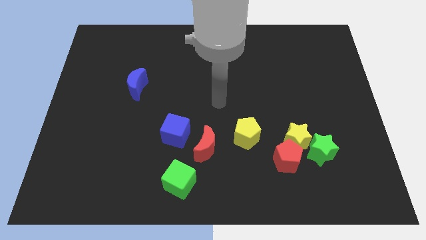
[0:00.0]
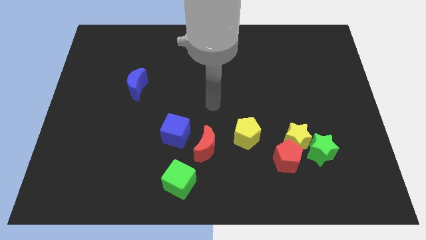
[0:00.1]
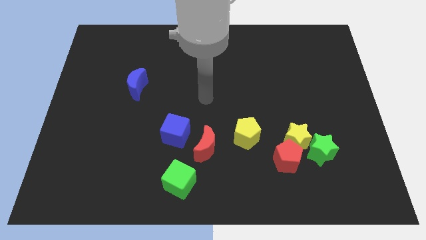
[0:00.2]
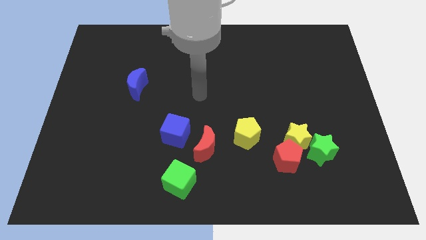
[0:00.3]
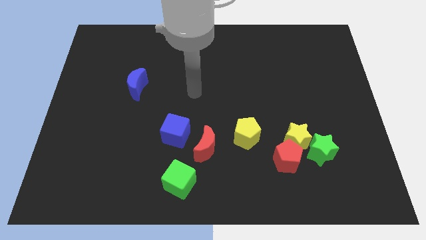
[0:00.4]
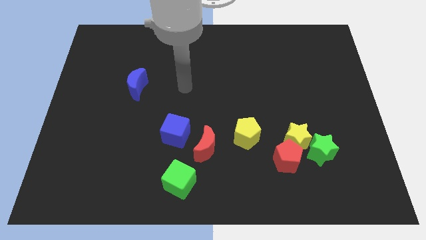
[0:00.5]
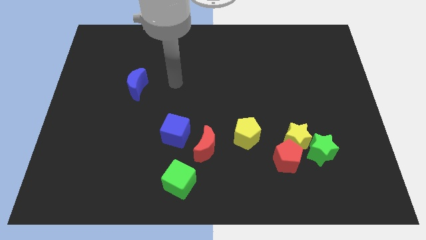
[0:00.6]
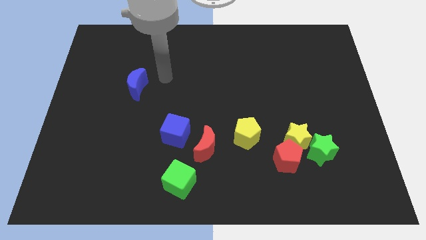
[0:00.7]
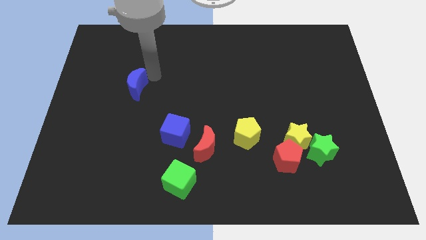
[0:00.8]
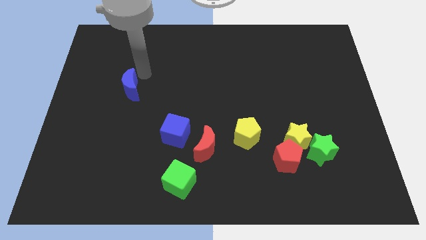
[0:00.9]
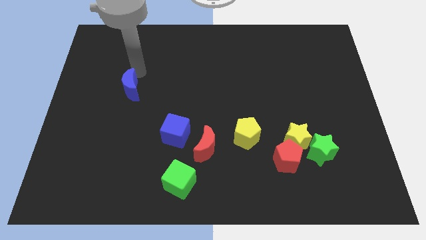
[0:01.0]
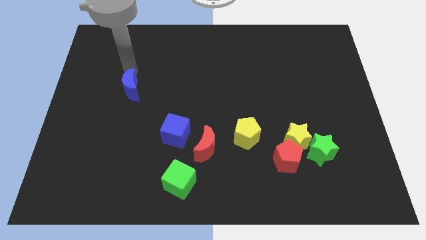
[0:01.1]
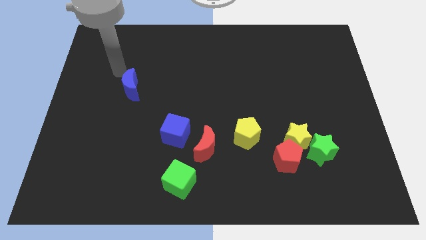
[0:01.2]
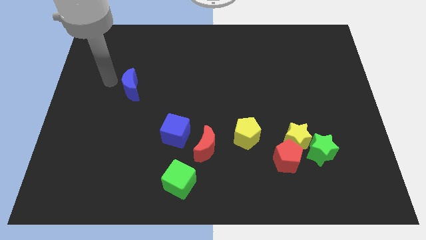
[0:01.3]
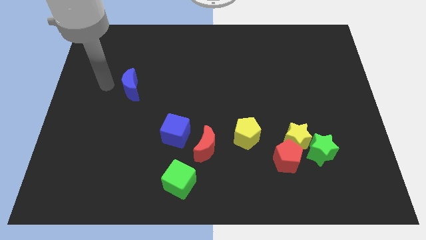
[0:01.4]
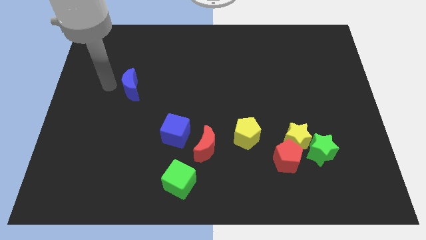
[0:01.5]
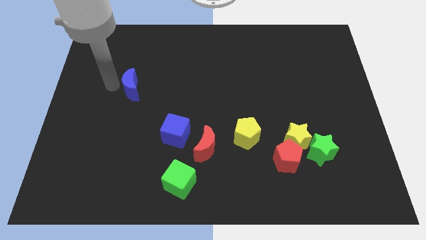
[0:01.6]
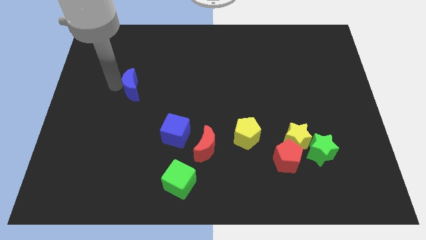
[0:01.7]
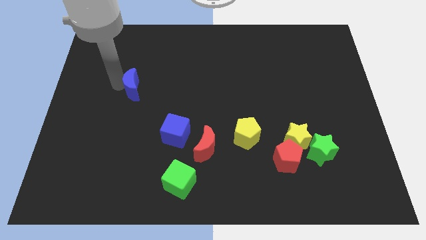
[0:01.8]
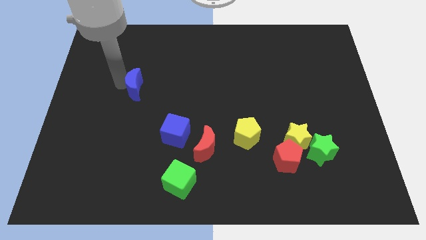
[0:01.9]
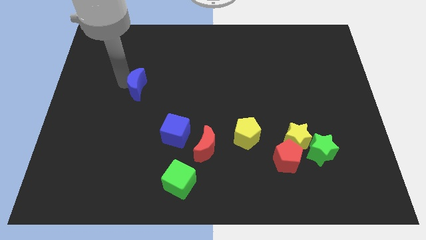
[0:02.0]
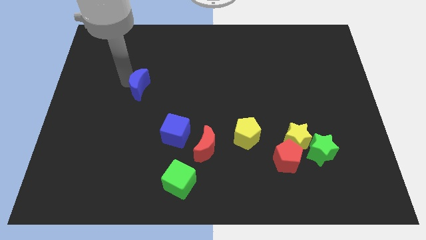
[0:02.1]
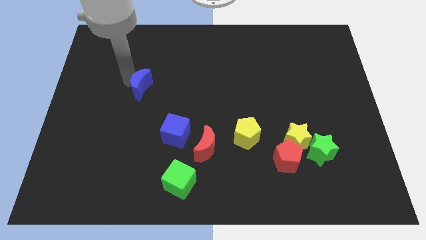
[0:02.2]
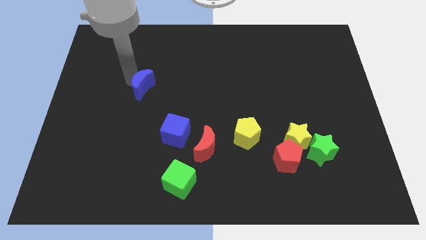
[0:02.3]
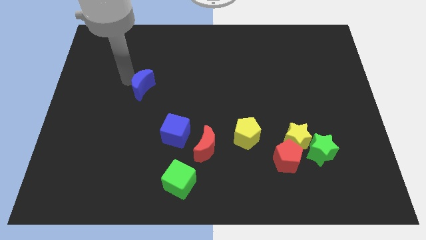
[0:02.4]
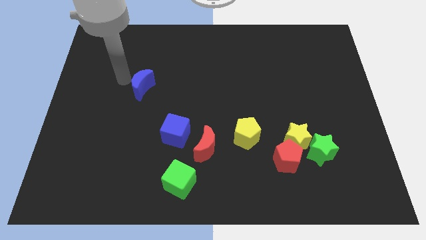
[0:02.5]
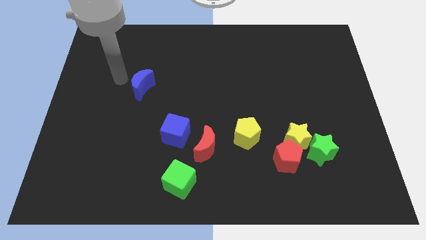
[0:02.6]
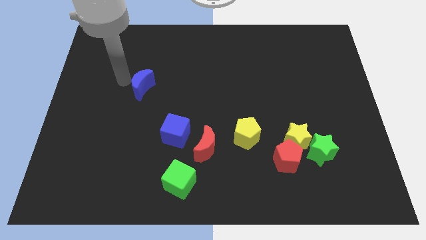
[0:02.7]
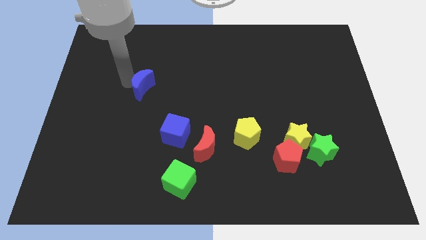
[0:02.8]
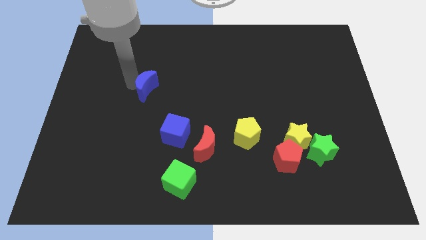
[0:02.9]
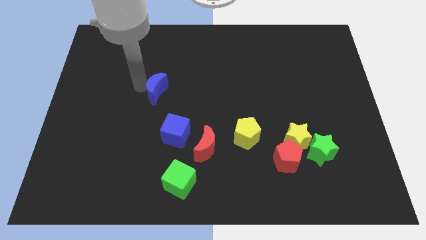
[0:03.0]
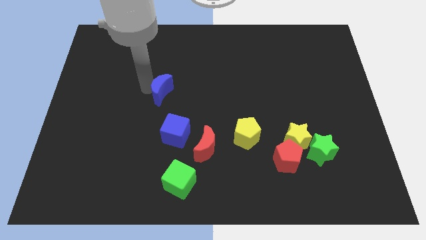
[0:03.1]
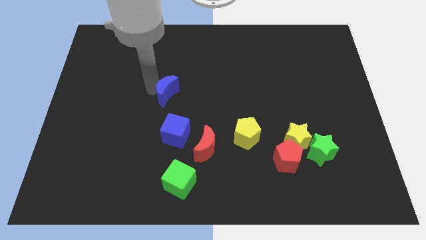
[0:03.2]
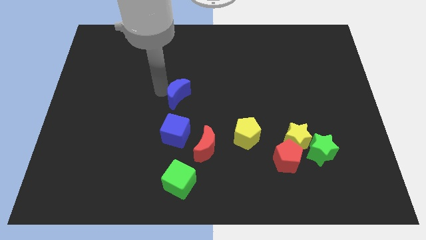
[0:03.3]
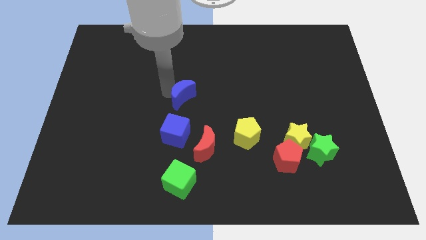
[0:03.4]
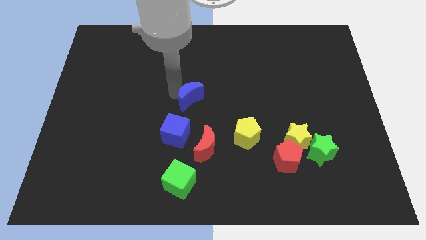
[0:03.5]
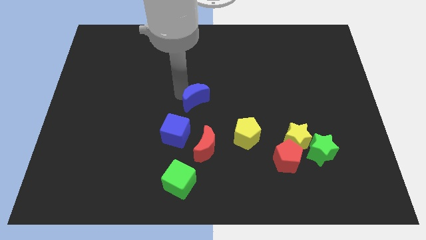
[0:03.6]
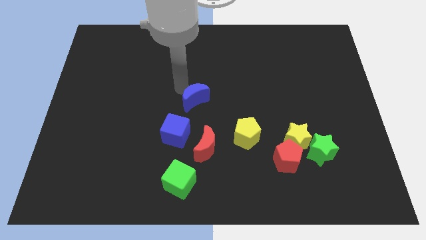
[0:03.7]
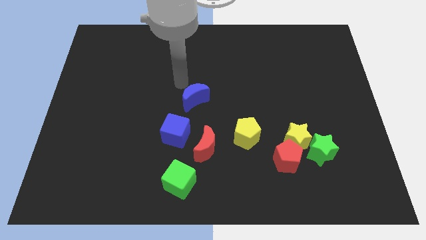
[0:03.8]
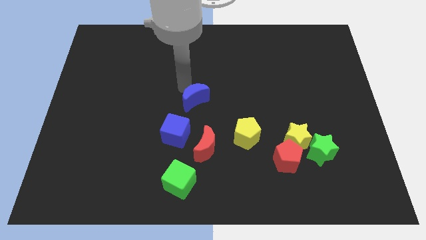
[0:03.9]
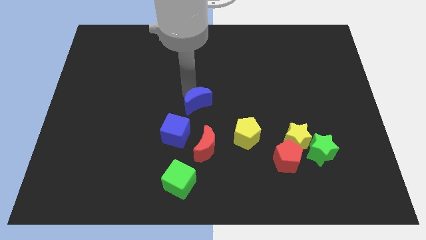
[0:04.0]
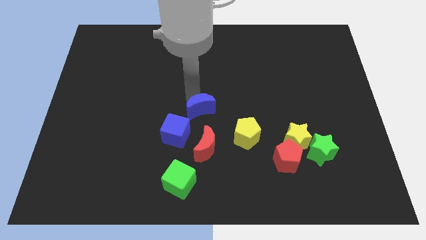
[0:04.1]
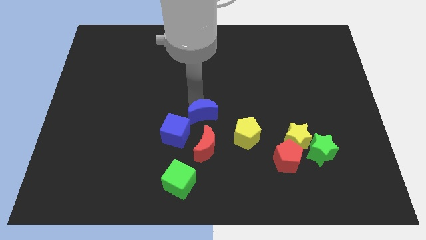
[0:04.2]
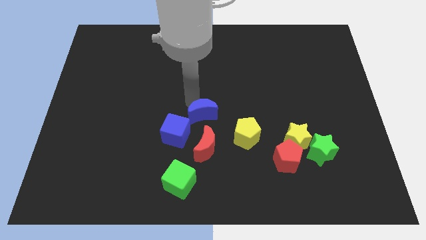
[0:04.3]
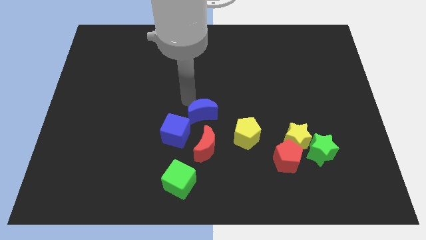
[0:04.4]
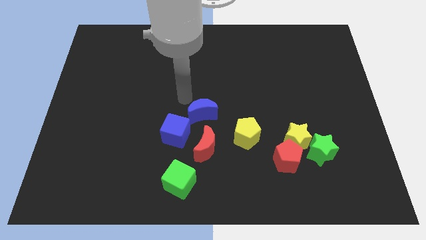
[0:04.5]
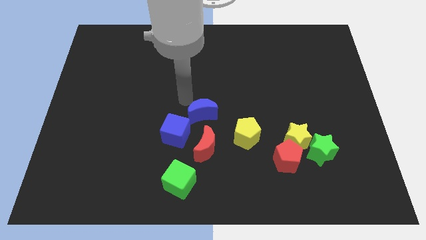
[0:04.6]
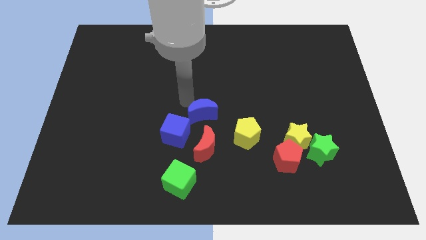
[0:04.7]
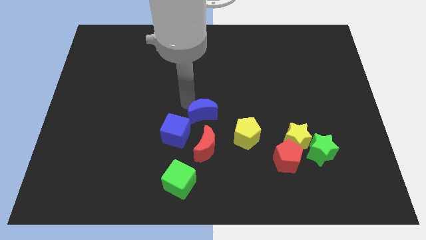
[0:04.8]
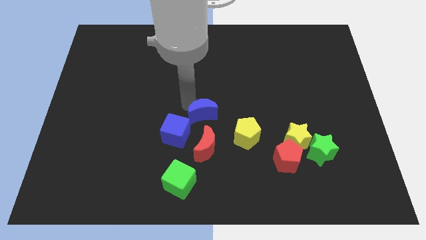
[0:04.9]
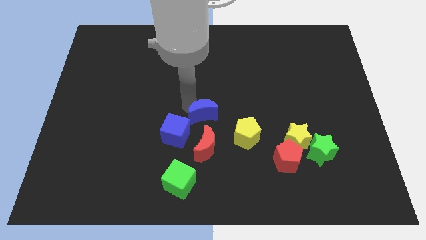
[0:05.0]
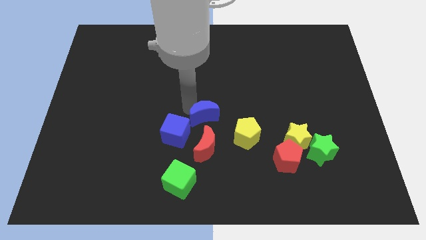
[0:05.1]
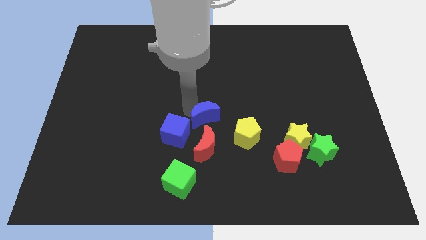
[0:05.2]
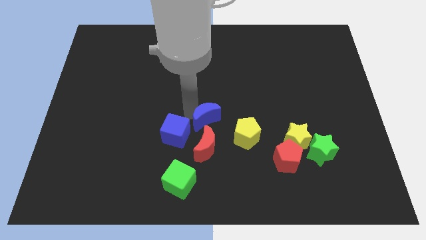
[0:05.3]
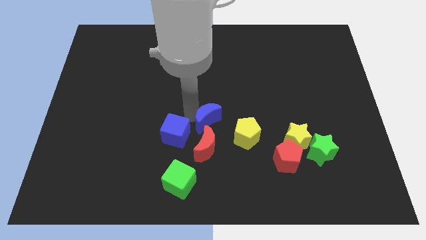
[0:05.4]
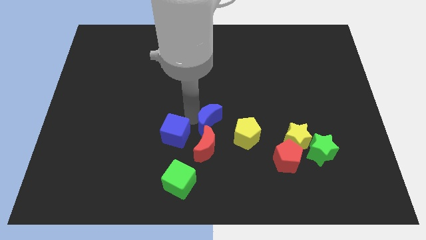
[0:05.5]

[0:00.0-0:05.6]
put the blue moon diagonally up and to the right of the red moon

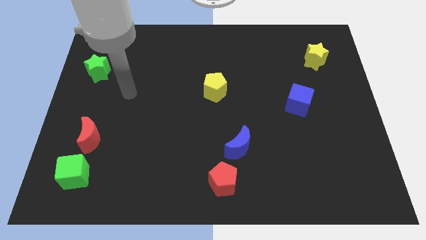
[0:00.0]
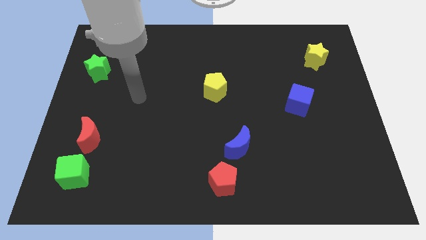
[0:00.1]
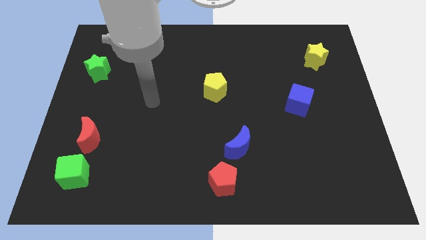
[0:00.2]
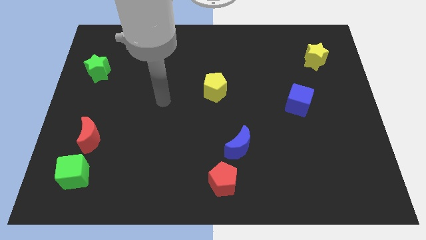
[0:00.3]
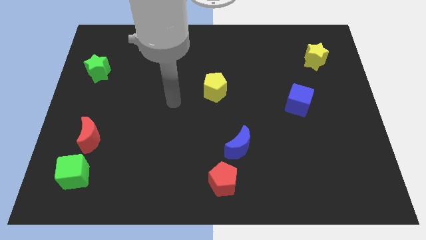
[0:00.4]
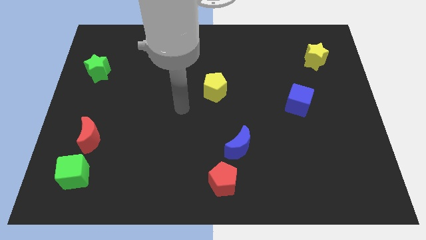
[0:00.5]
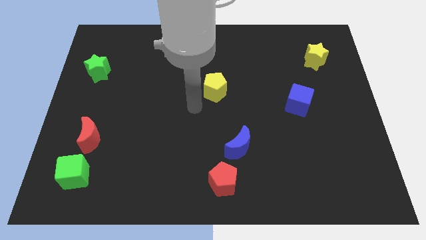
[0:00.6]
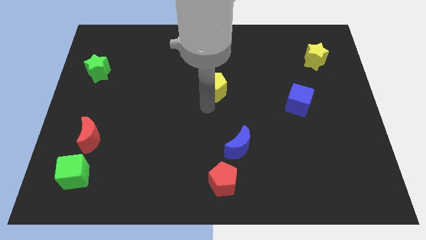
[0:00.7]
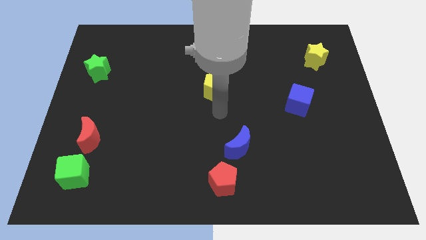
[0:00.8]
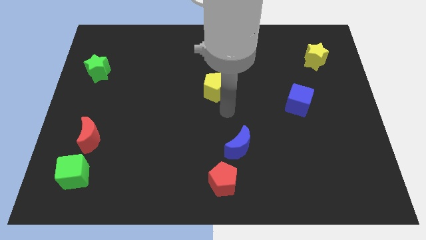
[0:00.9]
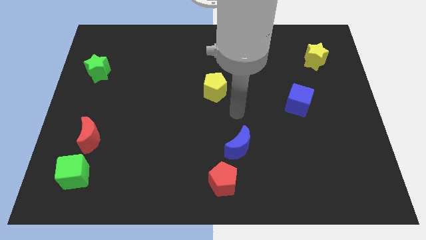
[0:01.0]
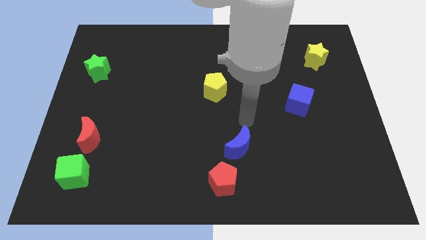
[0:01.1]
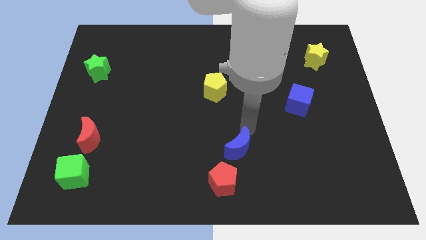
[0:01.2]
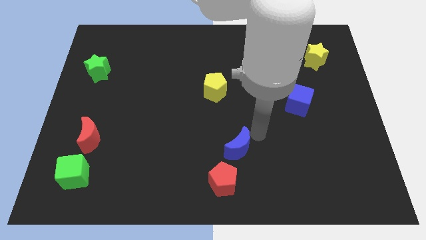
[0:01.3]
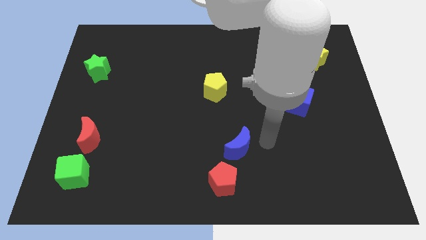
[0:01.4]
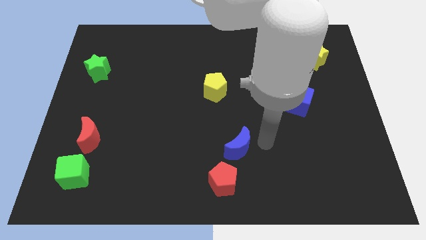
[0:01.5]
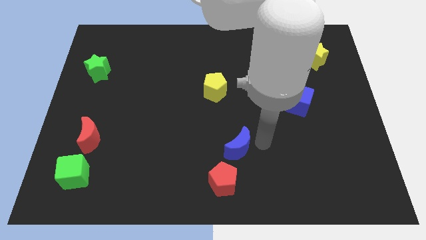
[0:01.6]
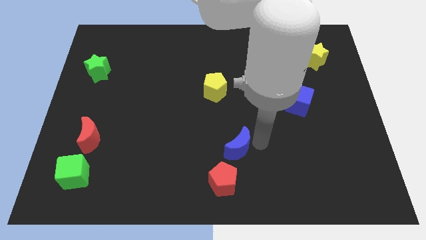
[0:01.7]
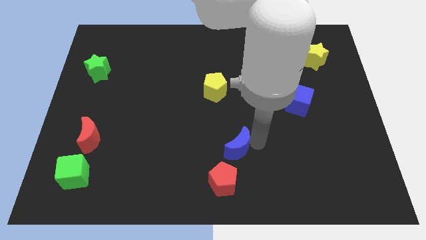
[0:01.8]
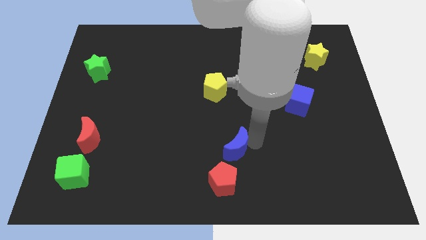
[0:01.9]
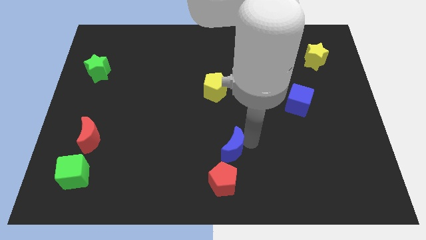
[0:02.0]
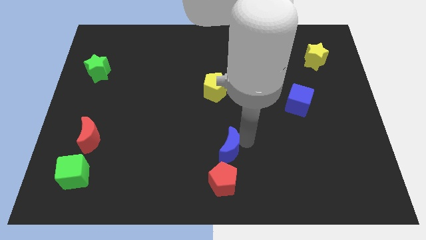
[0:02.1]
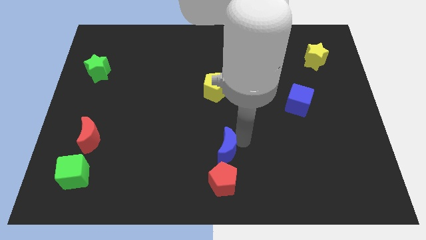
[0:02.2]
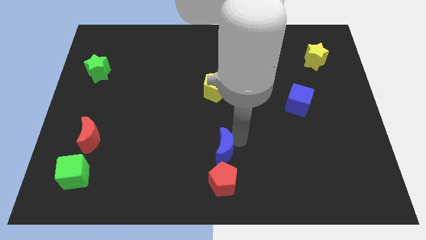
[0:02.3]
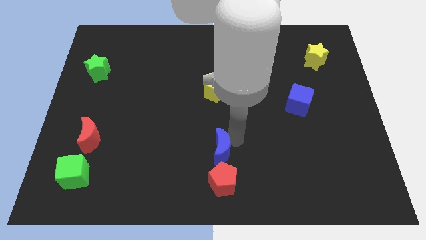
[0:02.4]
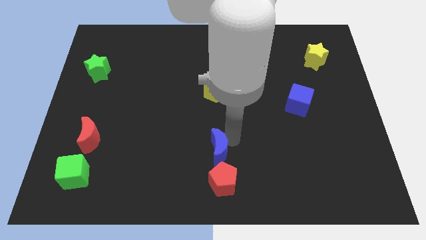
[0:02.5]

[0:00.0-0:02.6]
move the blue moon to the top left of the red pentagon
